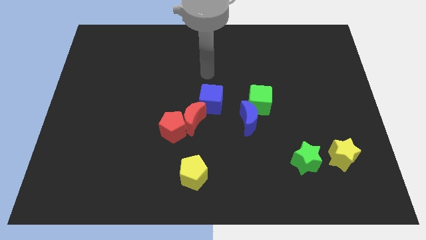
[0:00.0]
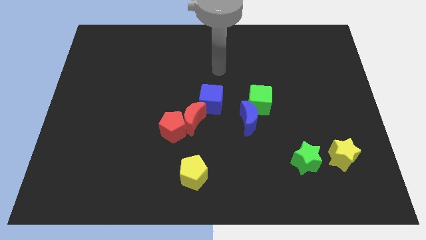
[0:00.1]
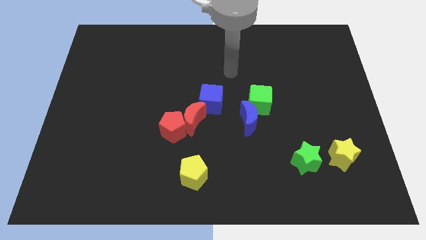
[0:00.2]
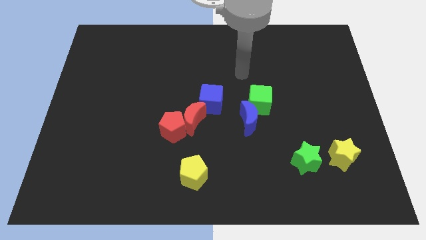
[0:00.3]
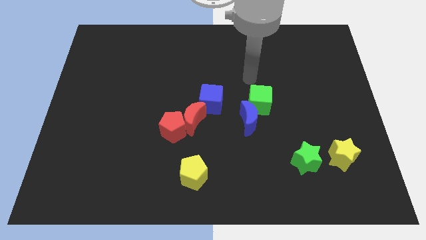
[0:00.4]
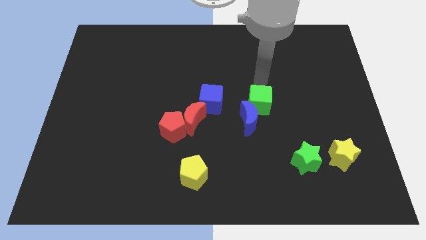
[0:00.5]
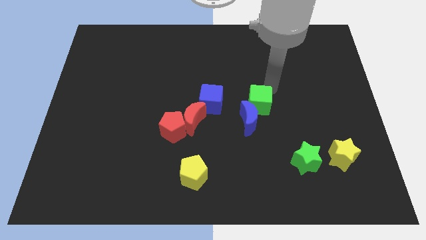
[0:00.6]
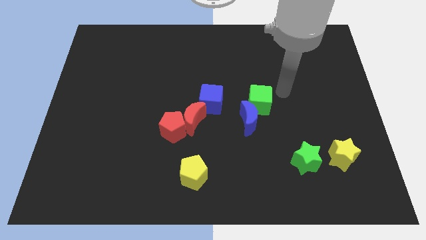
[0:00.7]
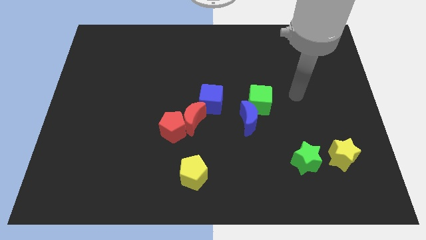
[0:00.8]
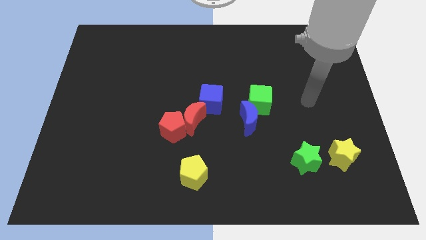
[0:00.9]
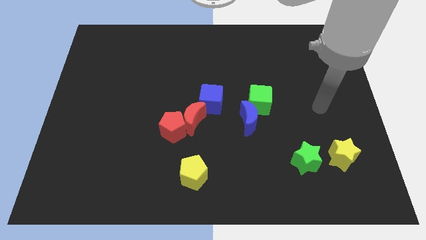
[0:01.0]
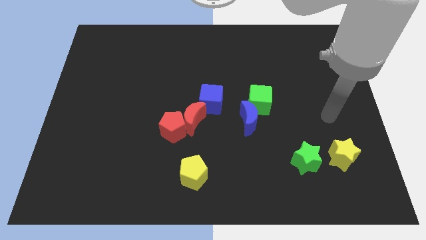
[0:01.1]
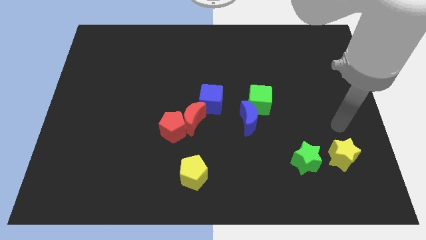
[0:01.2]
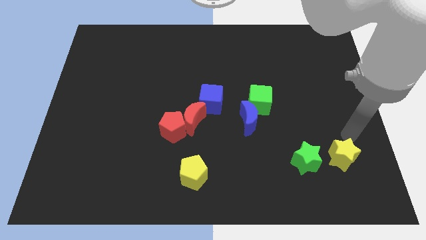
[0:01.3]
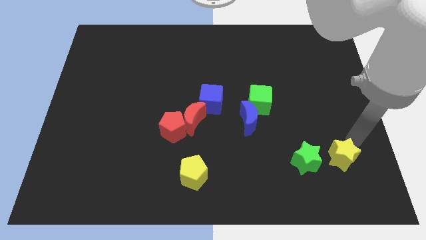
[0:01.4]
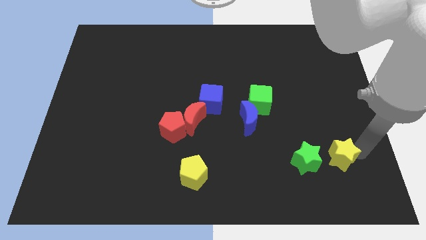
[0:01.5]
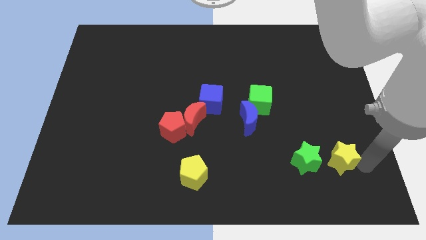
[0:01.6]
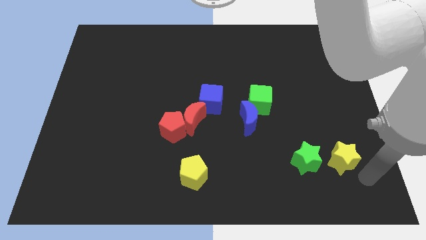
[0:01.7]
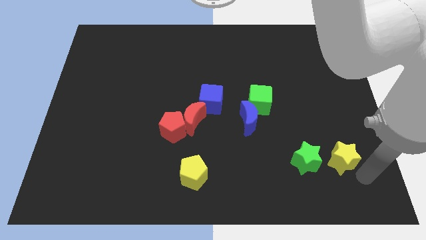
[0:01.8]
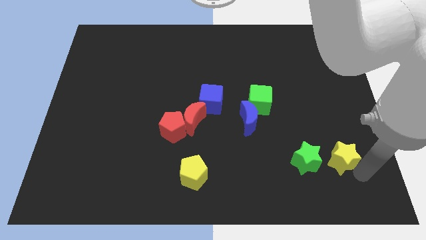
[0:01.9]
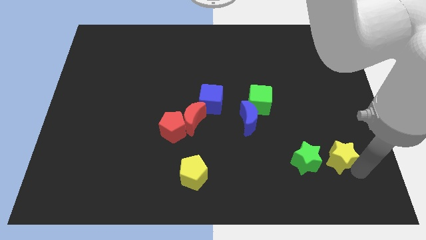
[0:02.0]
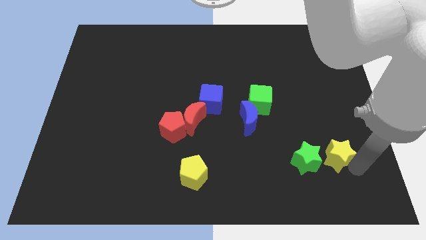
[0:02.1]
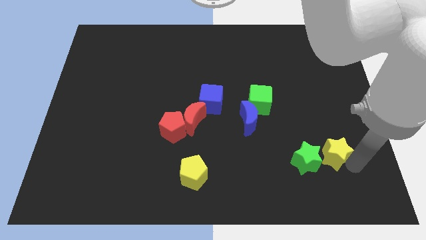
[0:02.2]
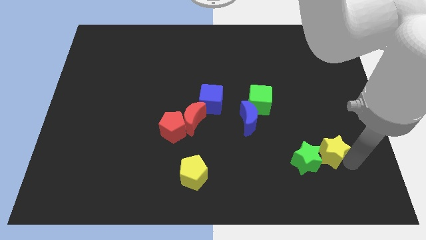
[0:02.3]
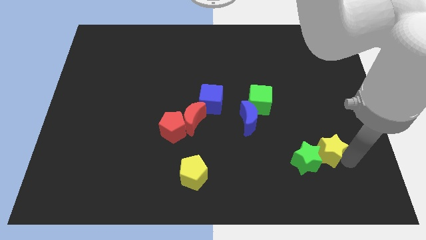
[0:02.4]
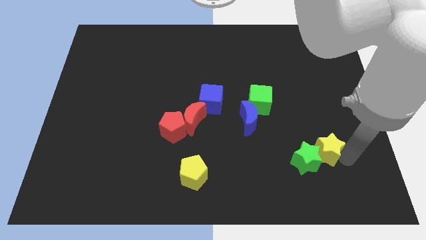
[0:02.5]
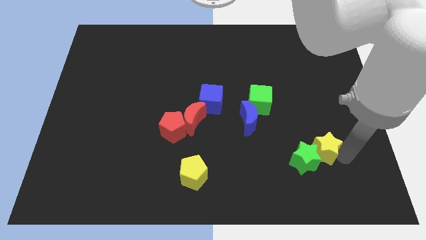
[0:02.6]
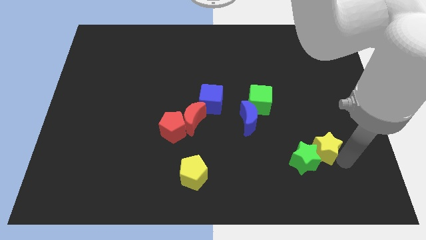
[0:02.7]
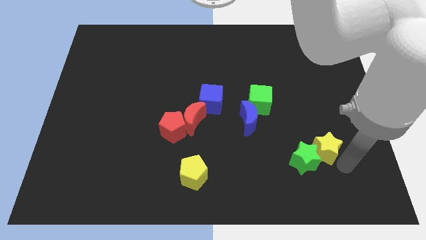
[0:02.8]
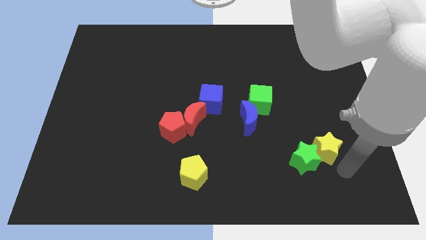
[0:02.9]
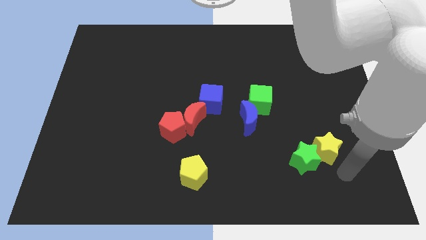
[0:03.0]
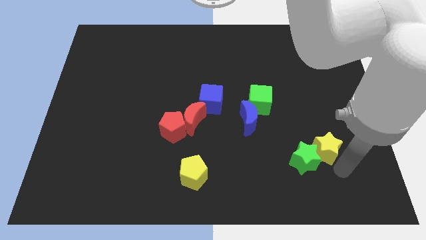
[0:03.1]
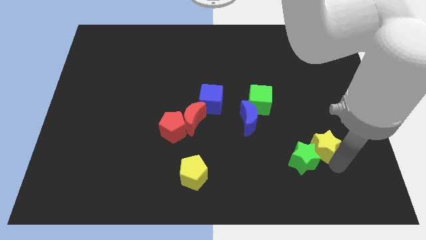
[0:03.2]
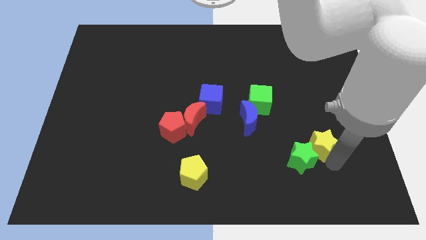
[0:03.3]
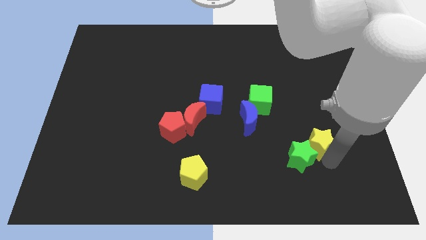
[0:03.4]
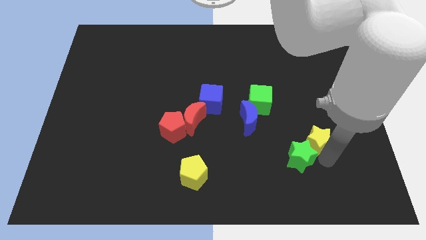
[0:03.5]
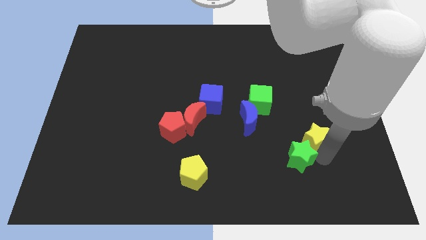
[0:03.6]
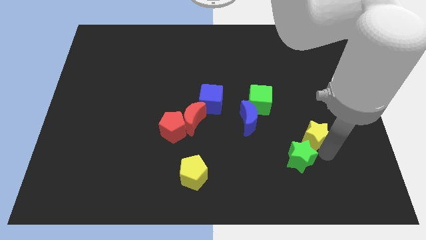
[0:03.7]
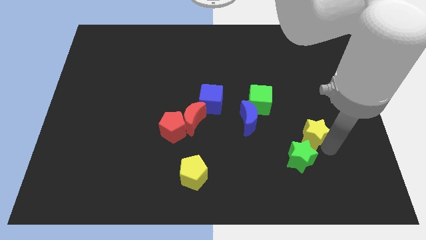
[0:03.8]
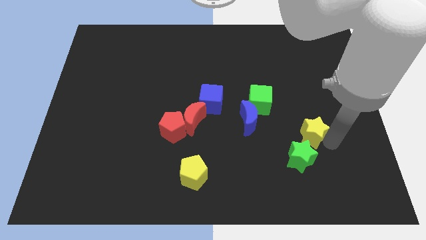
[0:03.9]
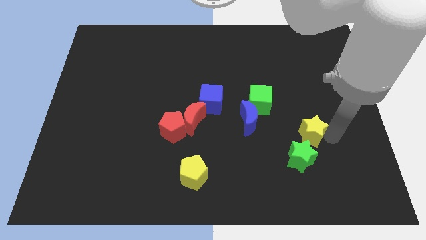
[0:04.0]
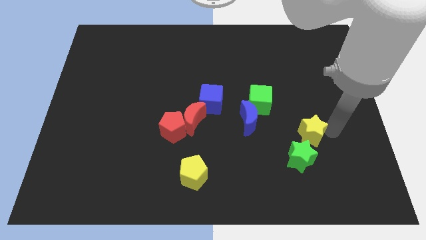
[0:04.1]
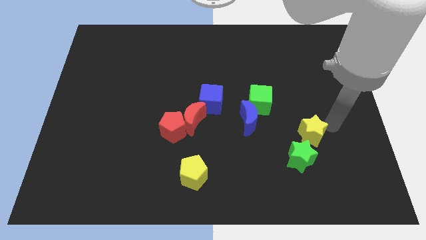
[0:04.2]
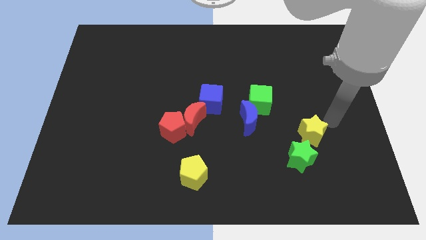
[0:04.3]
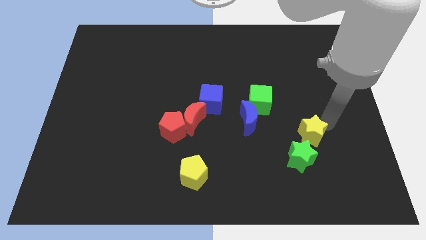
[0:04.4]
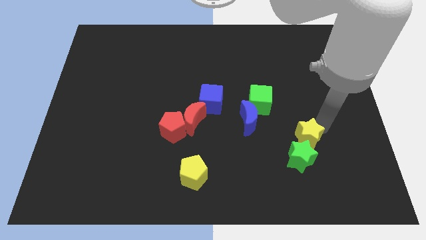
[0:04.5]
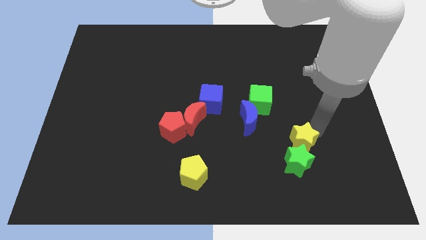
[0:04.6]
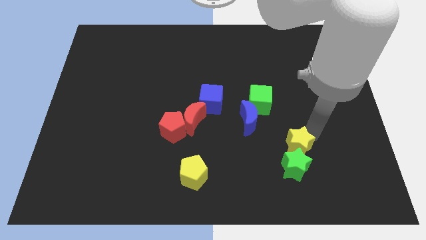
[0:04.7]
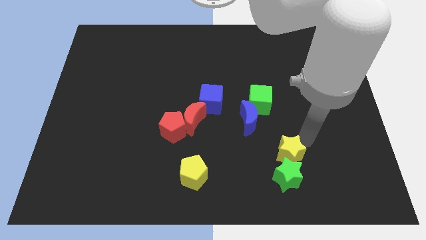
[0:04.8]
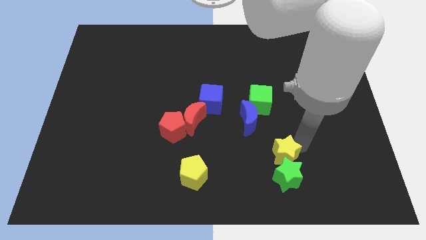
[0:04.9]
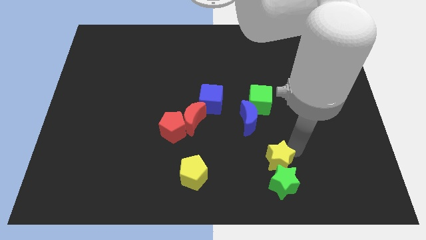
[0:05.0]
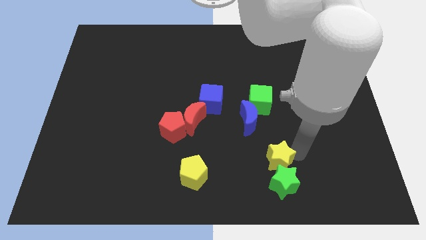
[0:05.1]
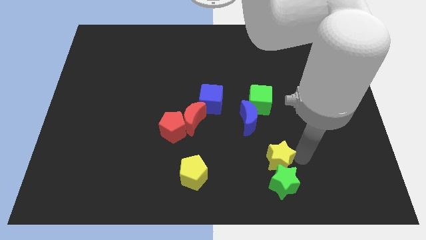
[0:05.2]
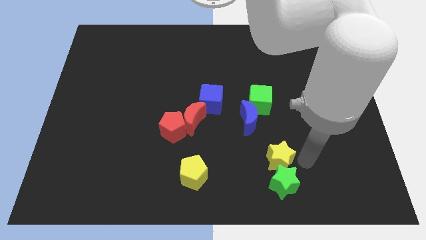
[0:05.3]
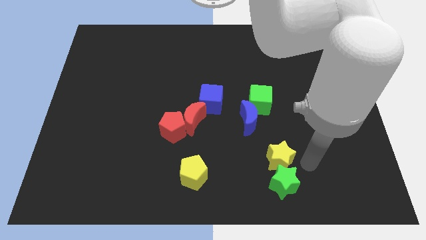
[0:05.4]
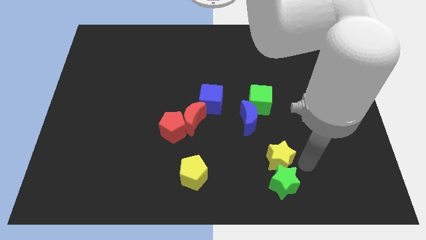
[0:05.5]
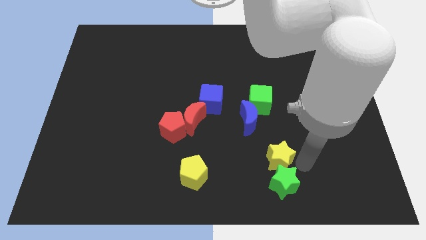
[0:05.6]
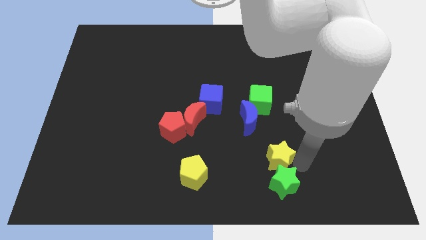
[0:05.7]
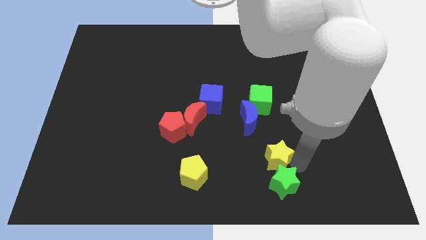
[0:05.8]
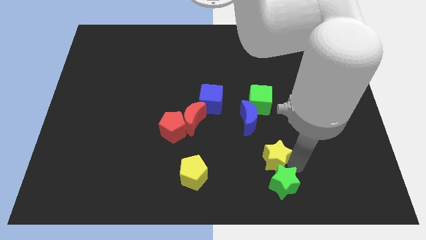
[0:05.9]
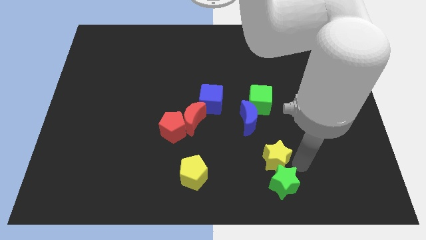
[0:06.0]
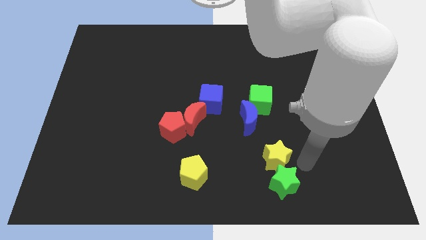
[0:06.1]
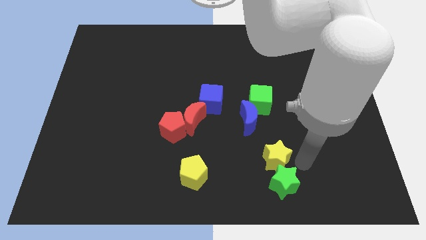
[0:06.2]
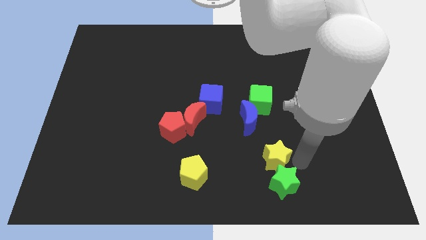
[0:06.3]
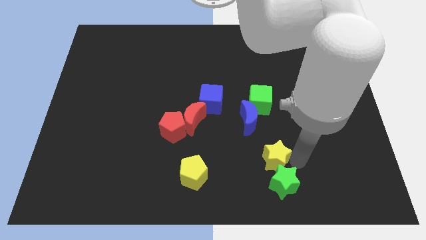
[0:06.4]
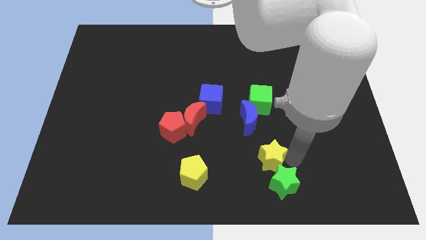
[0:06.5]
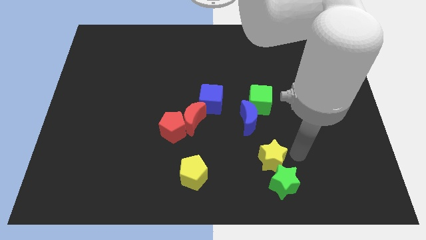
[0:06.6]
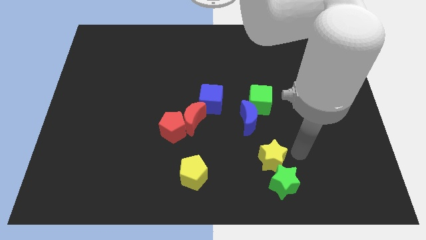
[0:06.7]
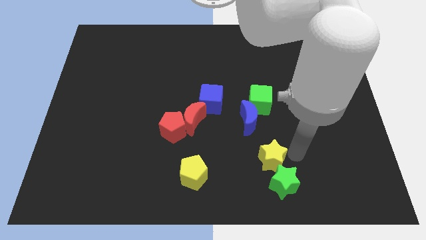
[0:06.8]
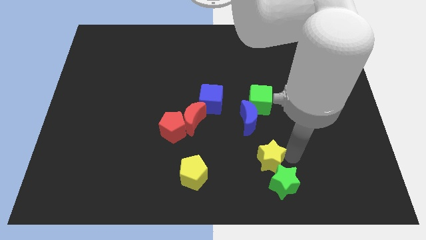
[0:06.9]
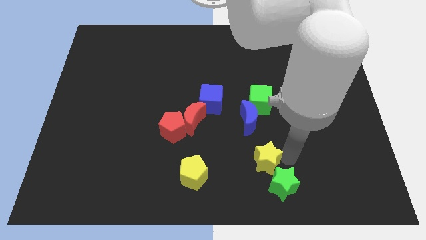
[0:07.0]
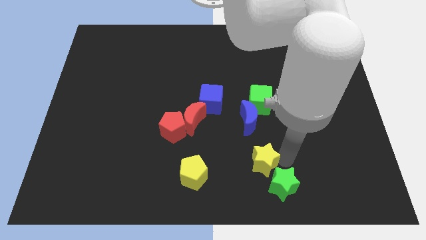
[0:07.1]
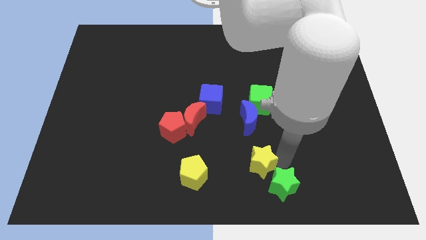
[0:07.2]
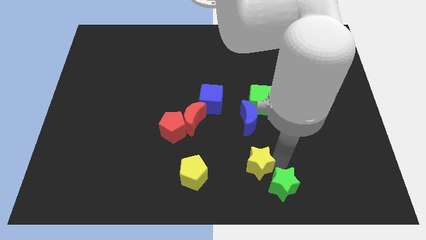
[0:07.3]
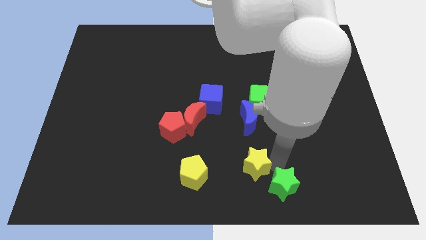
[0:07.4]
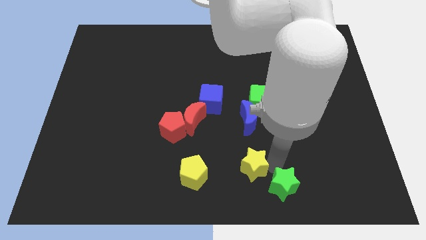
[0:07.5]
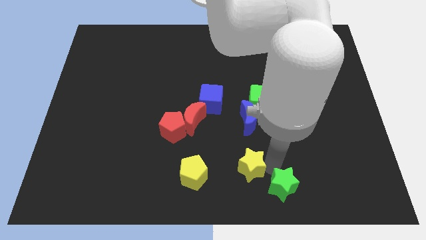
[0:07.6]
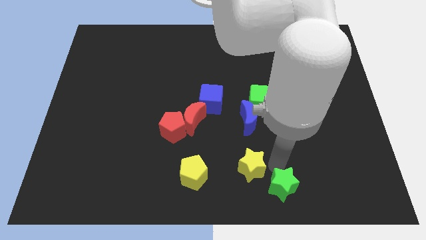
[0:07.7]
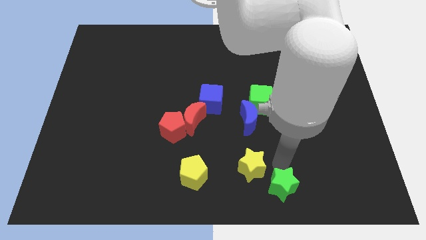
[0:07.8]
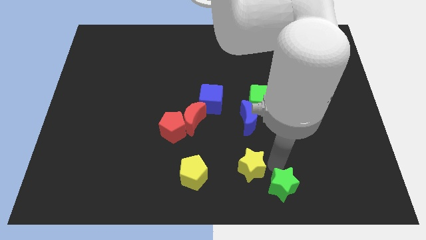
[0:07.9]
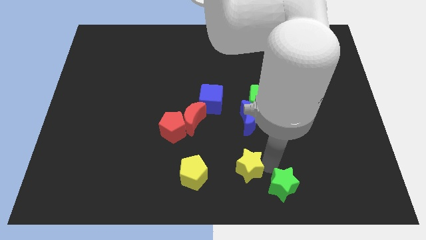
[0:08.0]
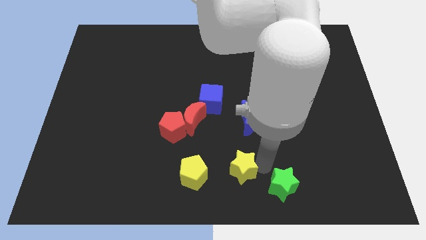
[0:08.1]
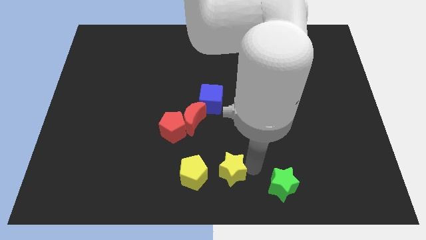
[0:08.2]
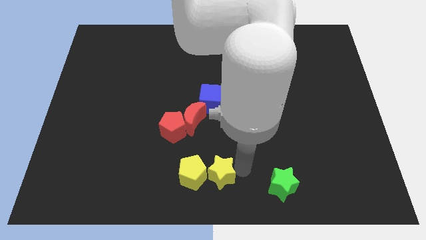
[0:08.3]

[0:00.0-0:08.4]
slide the yellow star towards the yellow pentagon
